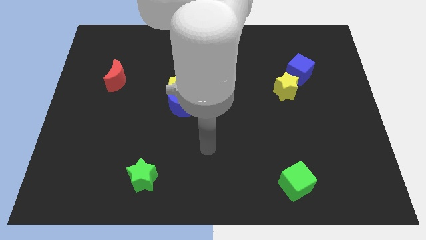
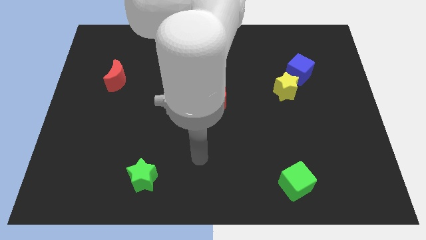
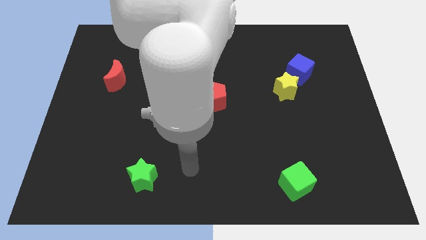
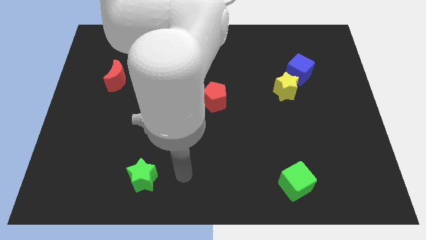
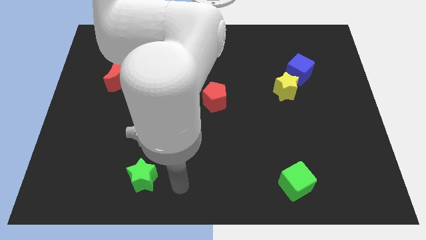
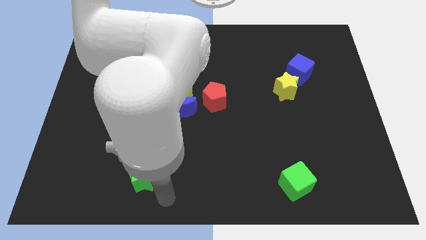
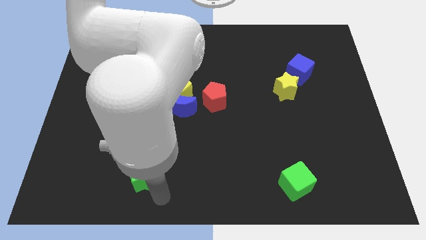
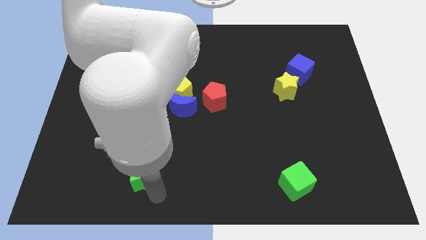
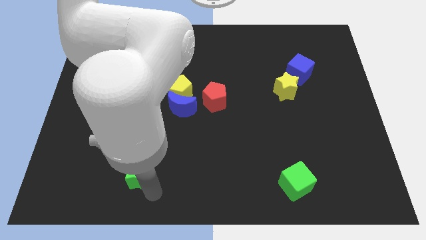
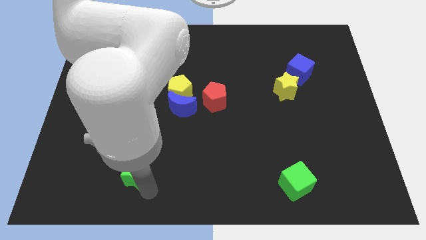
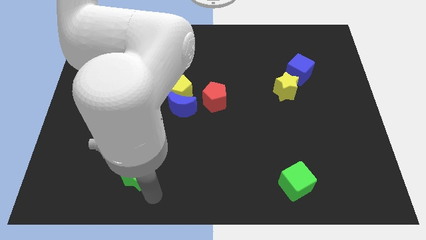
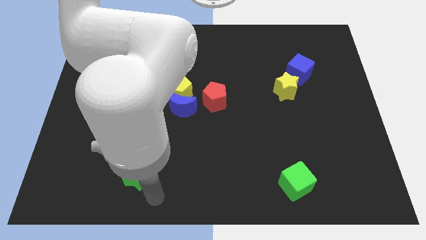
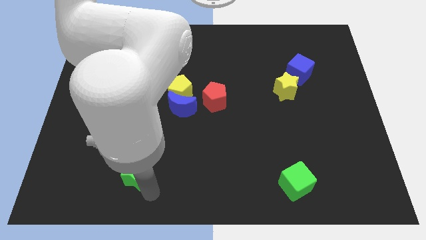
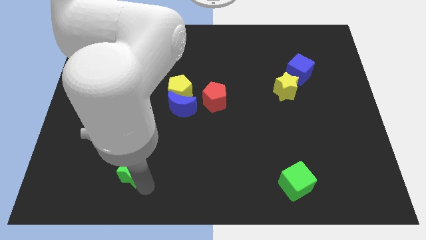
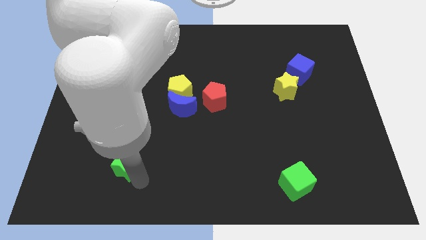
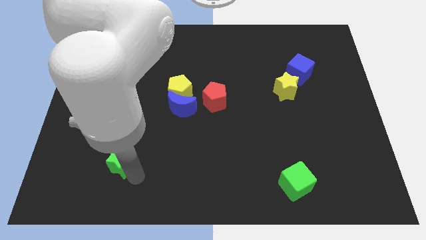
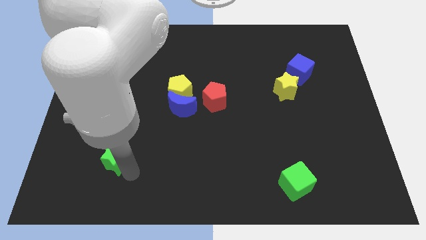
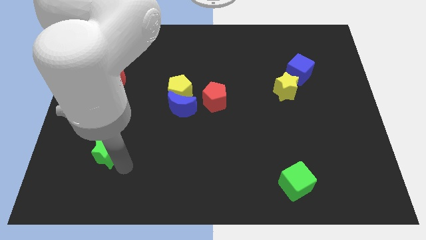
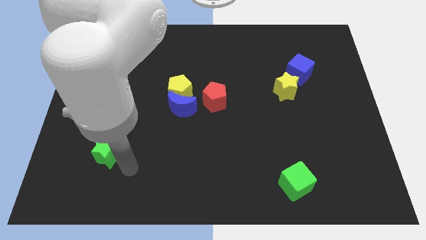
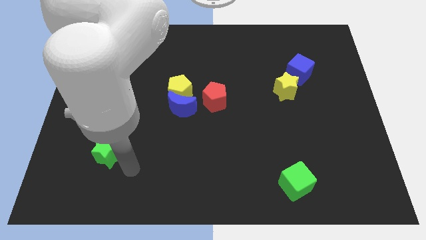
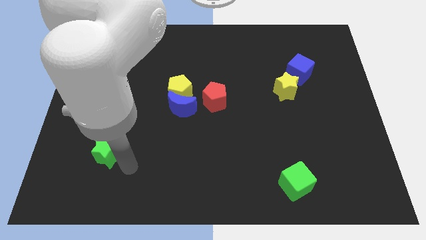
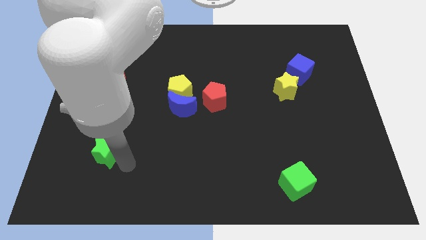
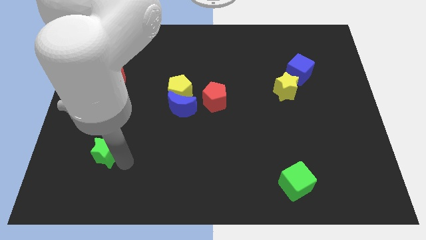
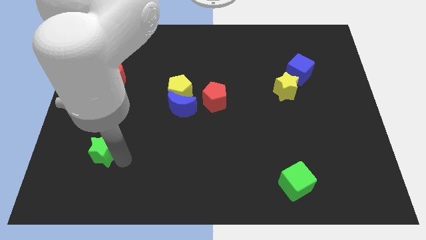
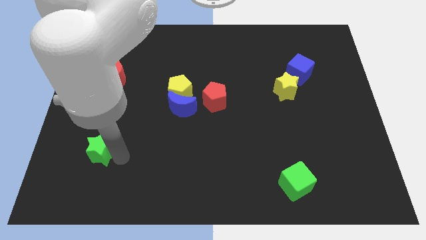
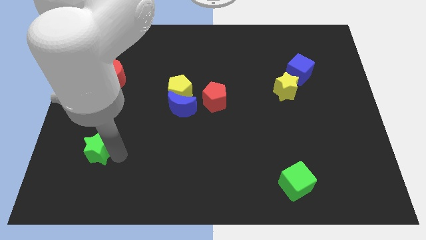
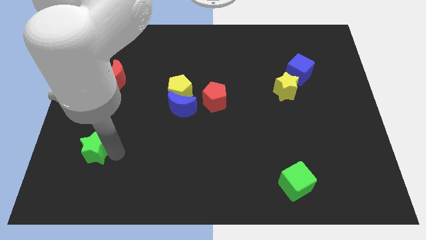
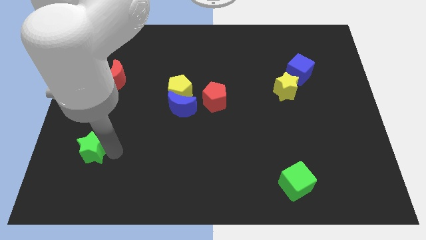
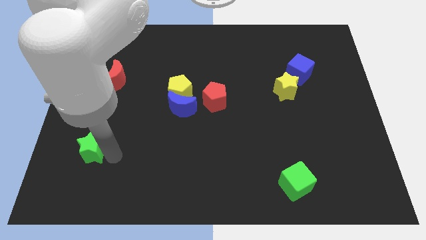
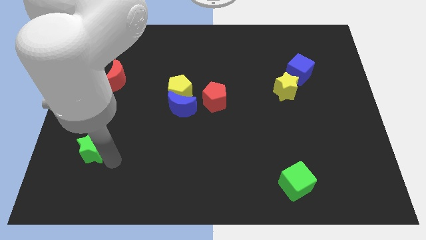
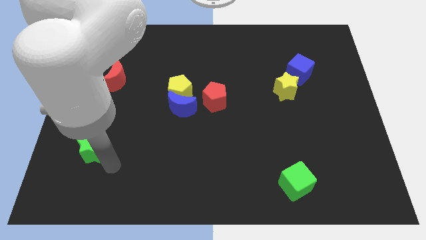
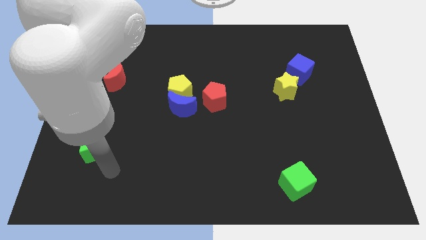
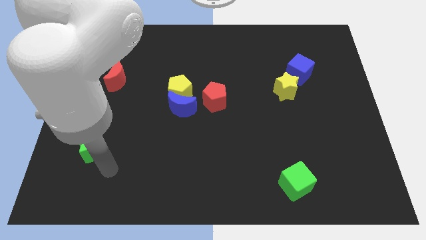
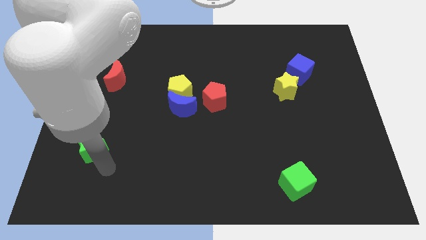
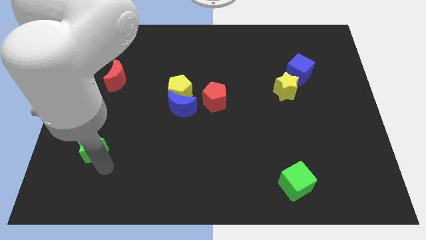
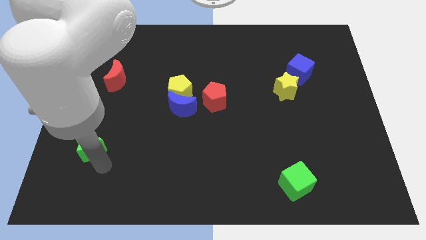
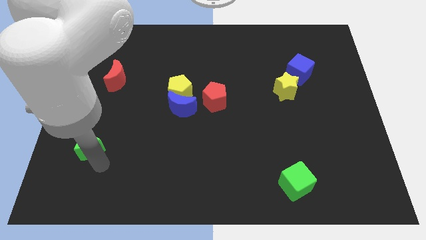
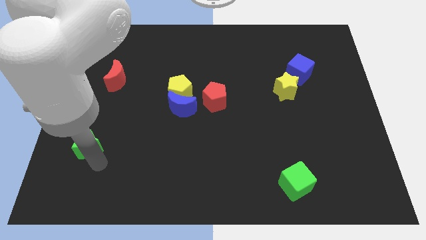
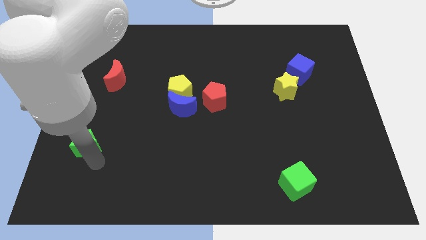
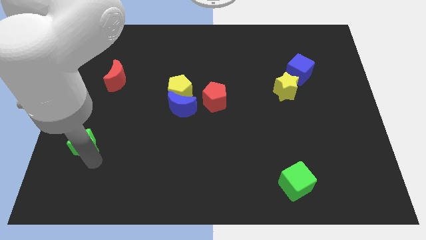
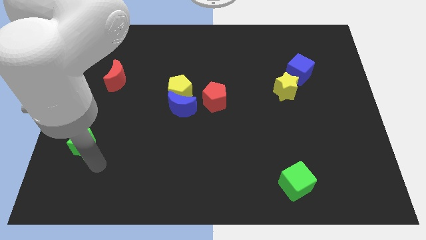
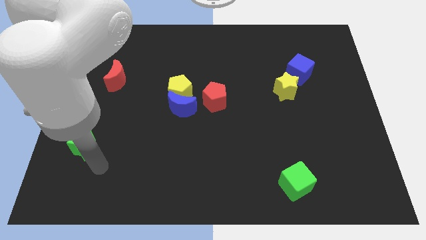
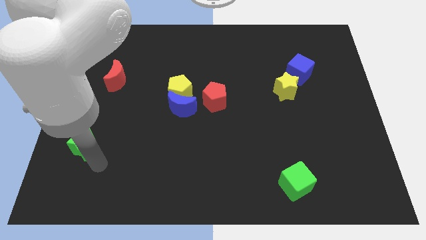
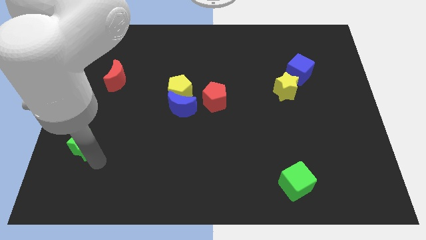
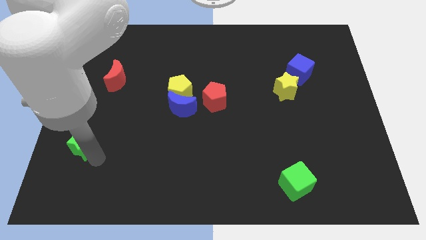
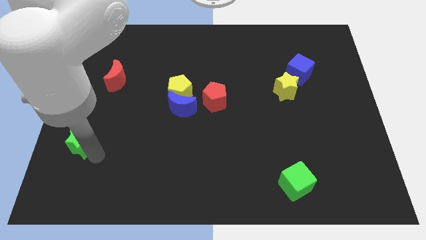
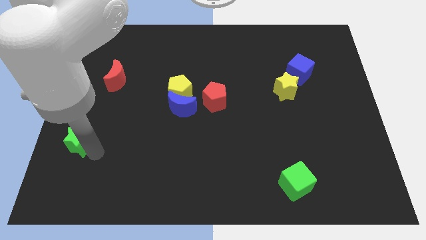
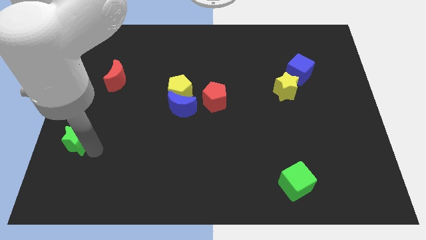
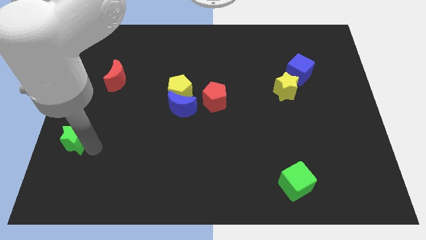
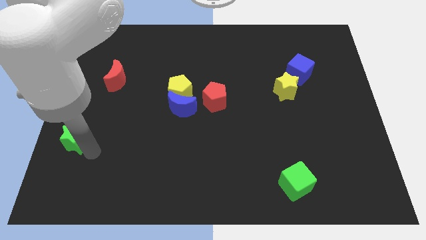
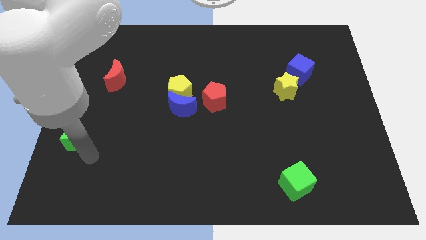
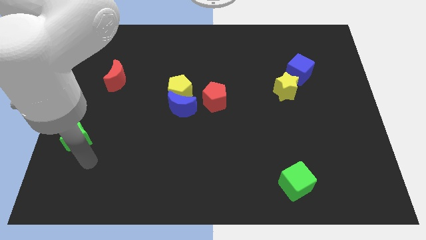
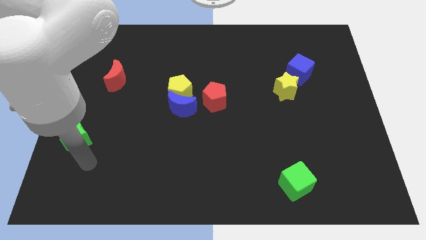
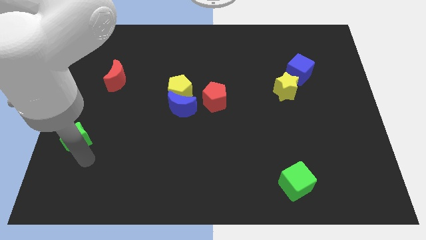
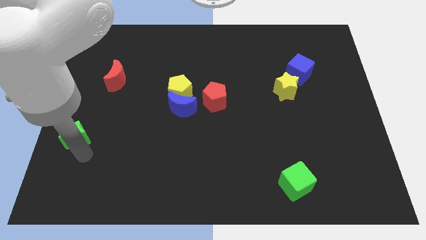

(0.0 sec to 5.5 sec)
slide the green star to the center left

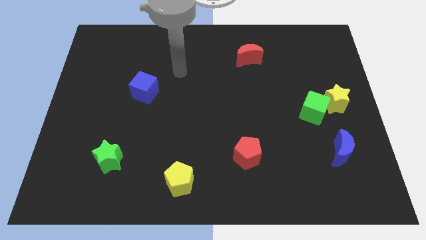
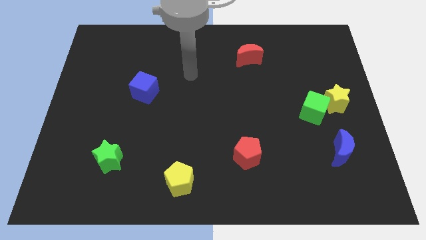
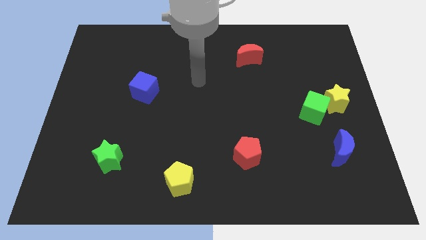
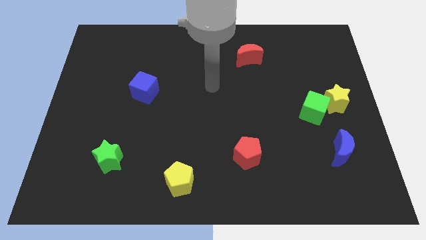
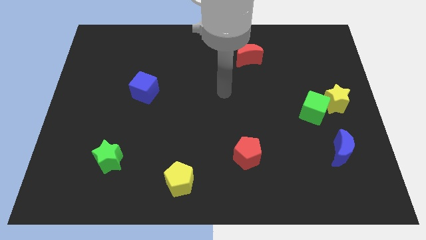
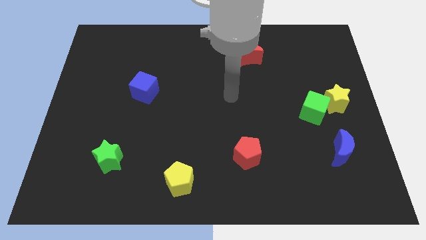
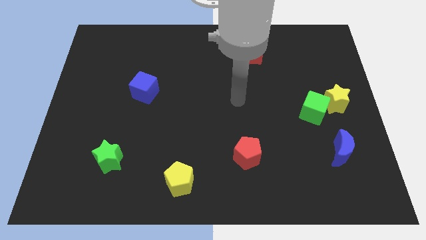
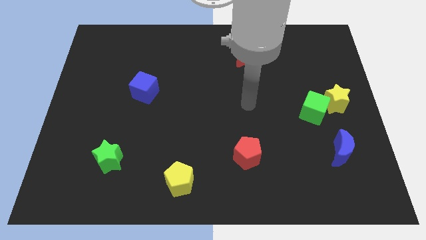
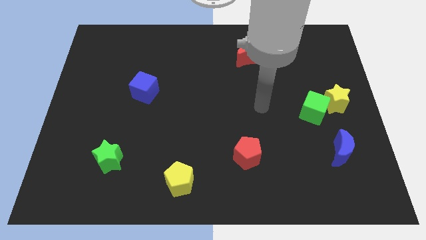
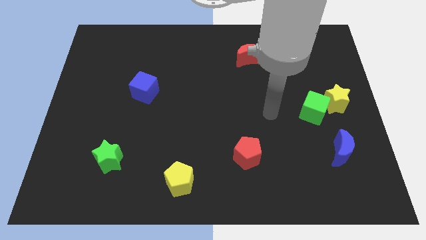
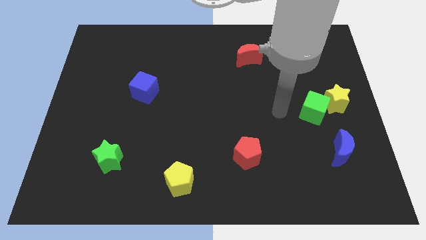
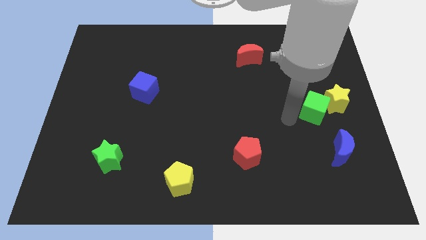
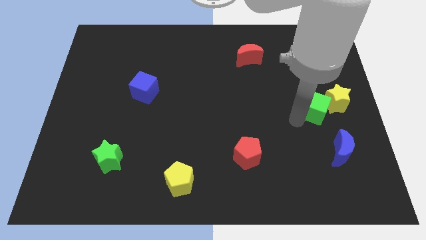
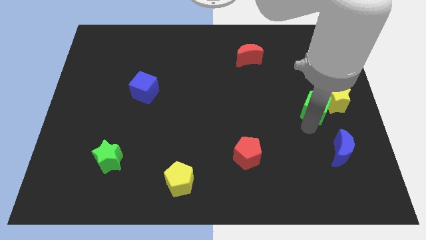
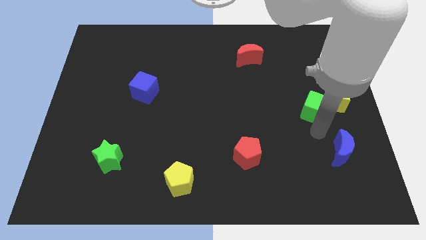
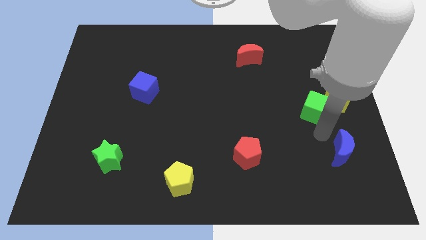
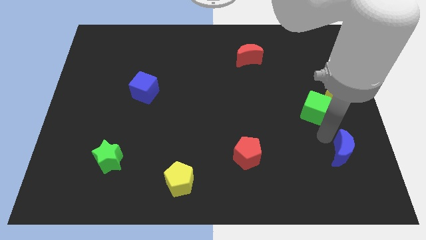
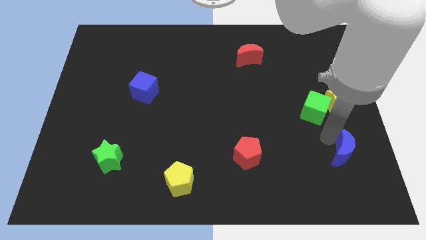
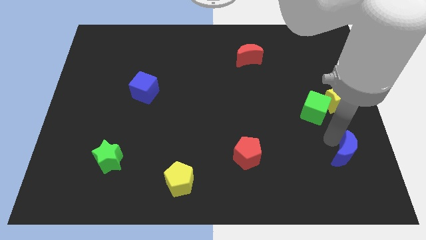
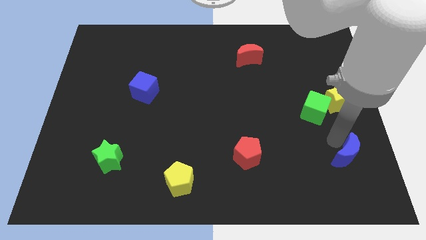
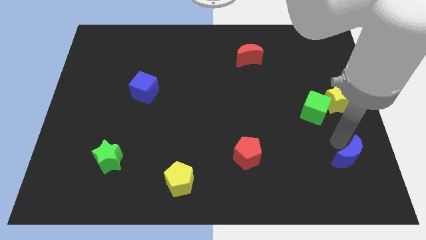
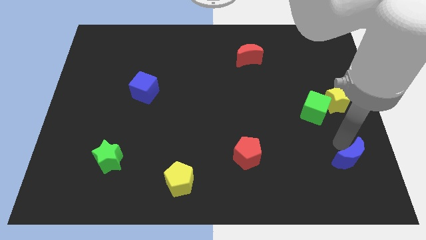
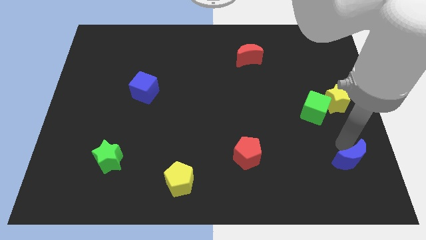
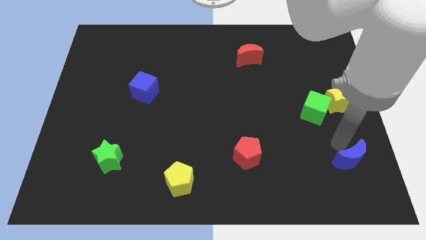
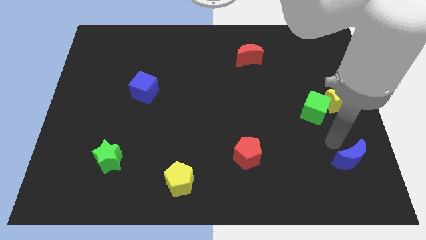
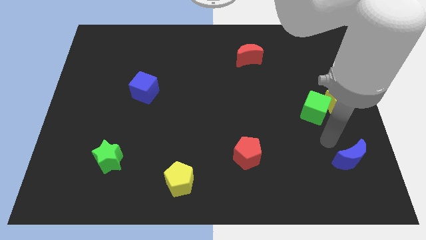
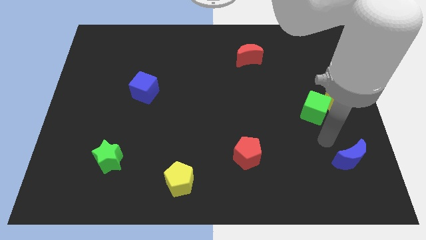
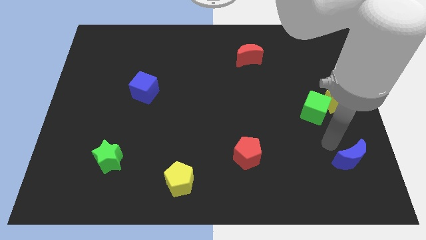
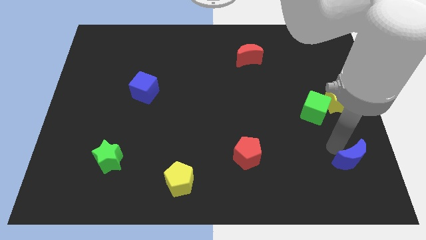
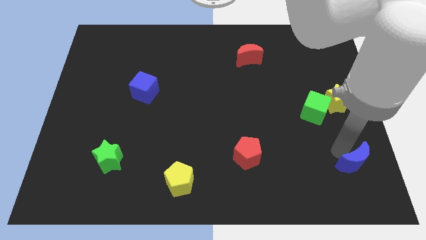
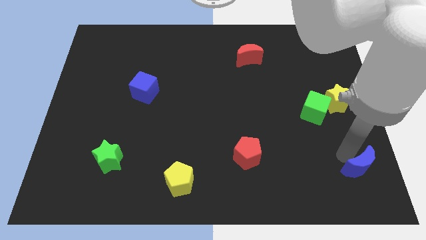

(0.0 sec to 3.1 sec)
slide the blue moon to the bottom right of the board
